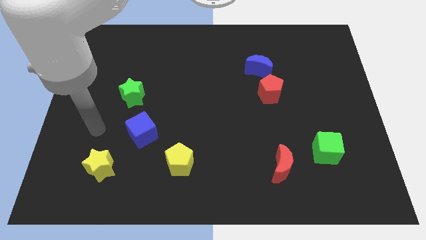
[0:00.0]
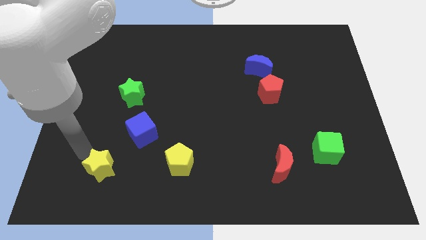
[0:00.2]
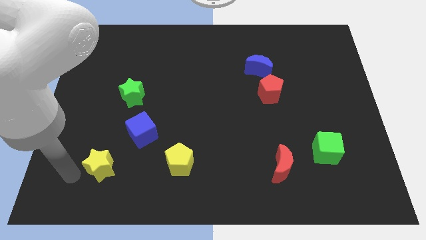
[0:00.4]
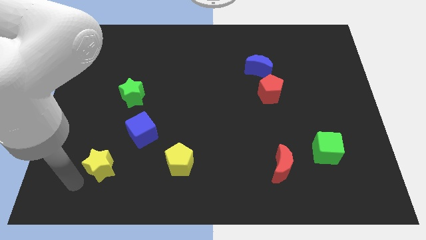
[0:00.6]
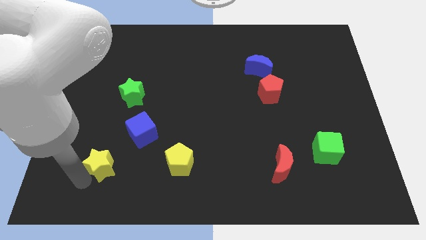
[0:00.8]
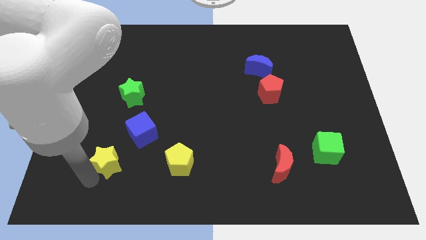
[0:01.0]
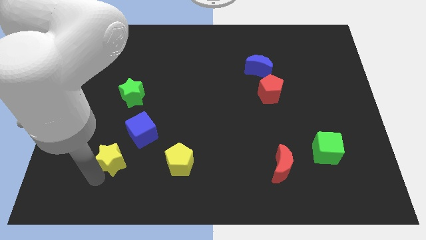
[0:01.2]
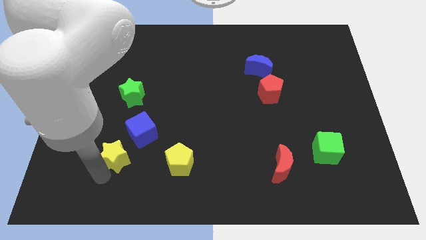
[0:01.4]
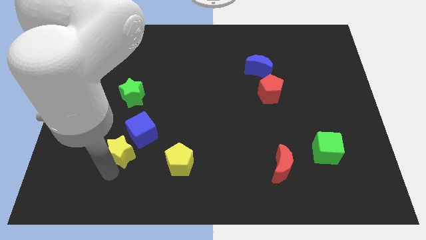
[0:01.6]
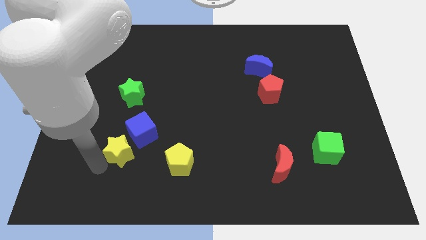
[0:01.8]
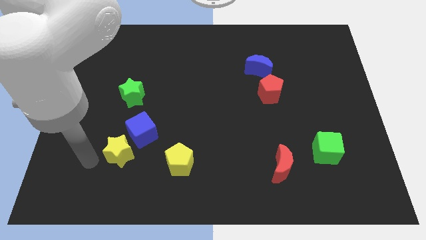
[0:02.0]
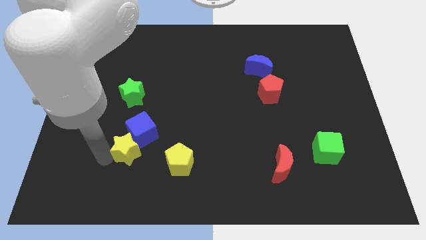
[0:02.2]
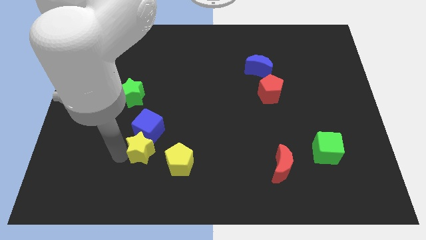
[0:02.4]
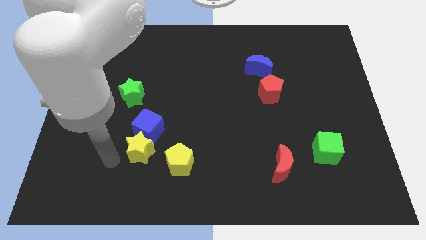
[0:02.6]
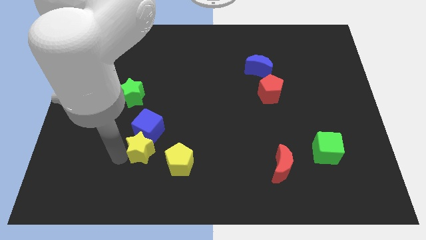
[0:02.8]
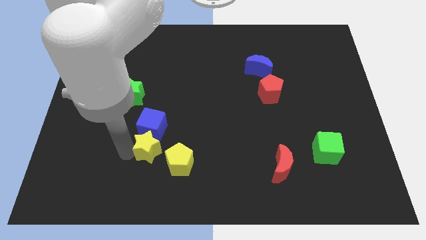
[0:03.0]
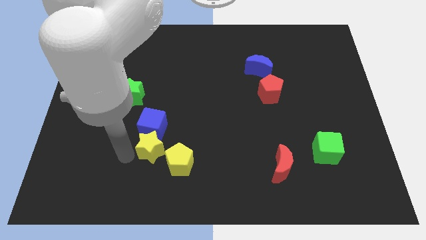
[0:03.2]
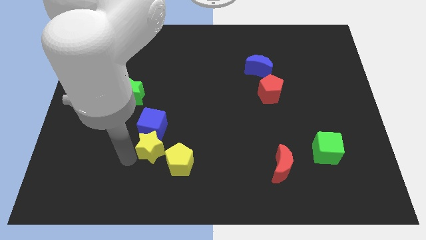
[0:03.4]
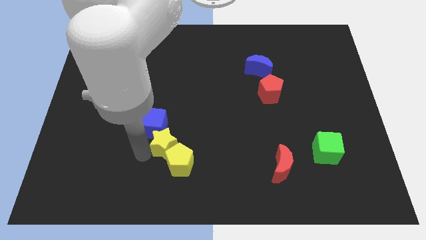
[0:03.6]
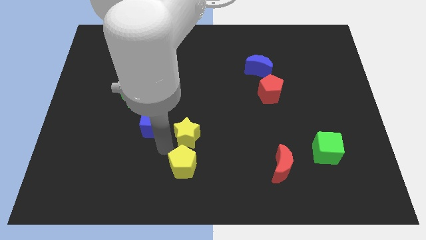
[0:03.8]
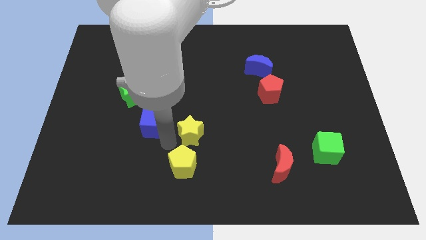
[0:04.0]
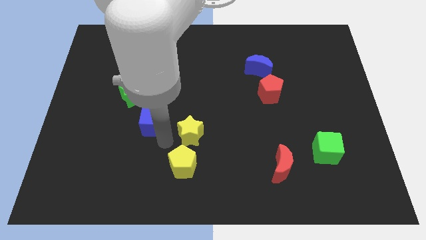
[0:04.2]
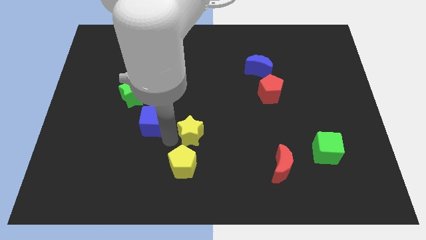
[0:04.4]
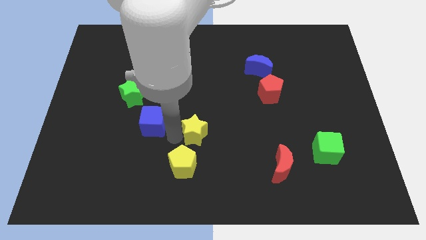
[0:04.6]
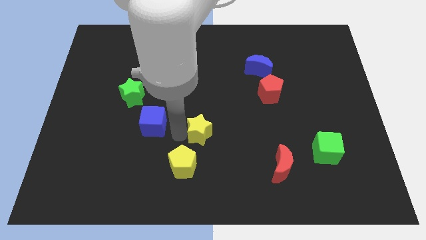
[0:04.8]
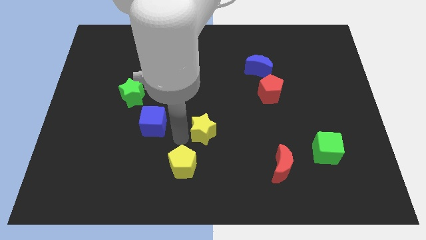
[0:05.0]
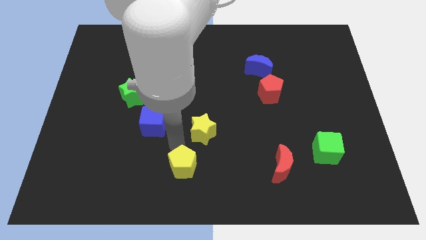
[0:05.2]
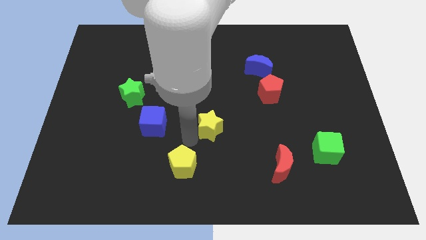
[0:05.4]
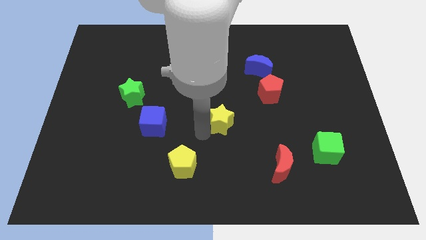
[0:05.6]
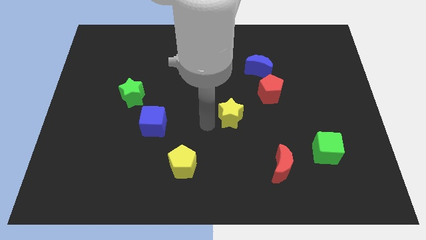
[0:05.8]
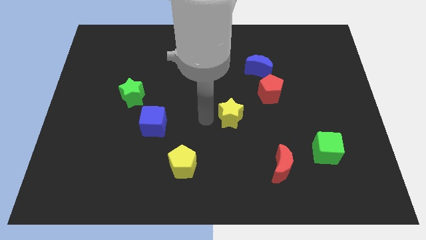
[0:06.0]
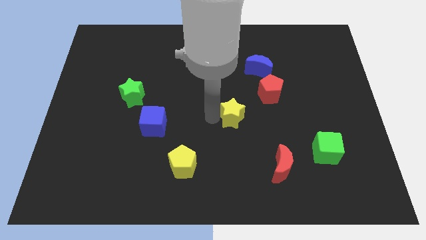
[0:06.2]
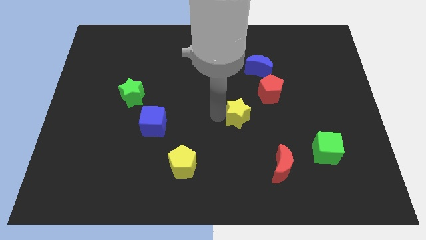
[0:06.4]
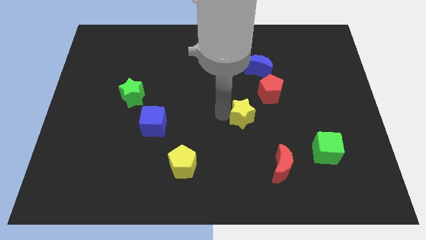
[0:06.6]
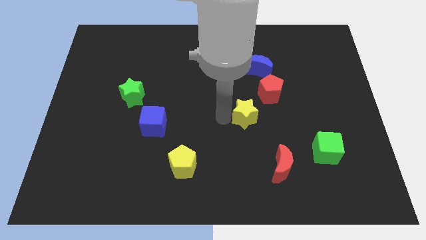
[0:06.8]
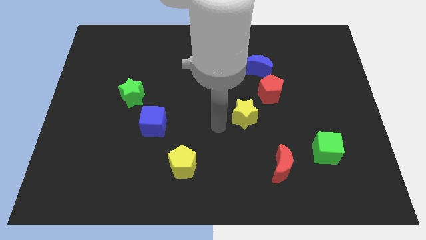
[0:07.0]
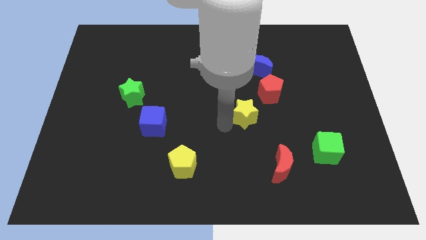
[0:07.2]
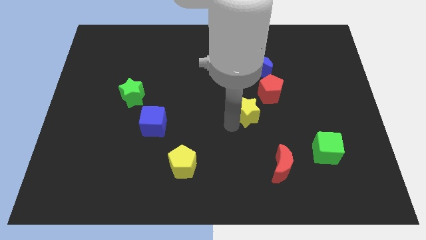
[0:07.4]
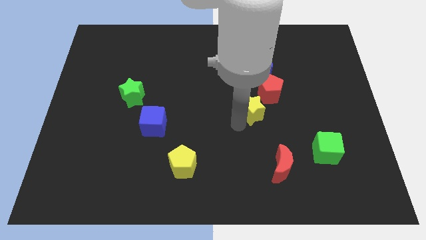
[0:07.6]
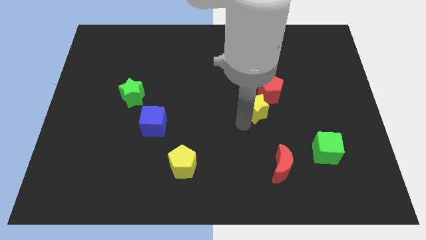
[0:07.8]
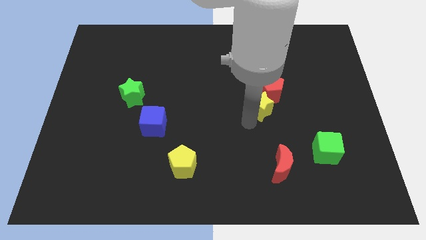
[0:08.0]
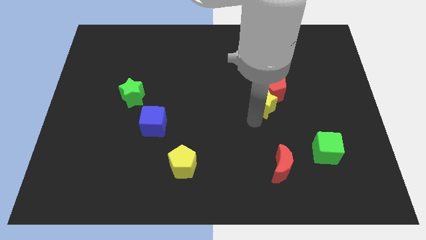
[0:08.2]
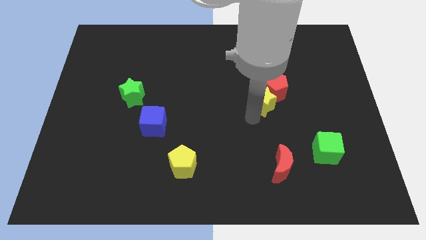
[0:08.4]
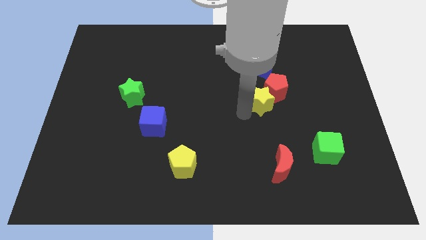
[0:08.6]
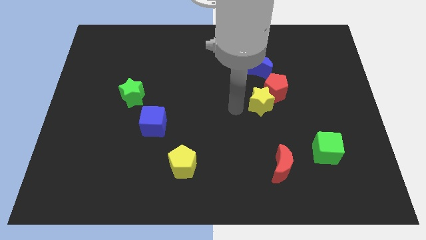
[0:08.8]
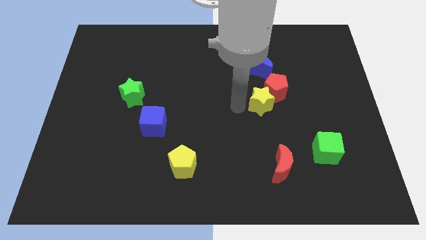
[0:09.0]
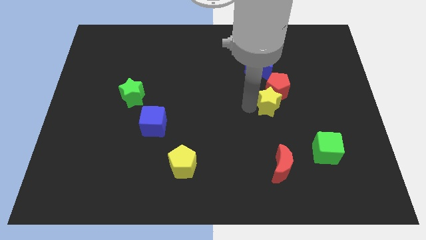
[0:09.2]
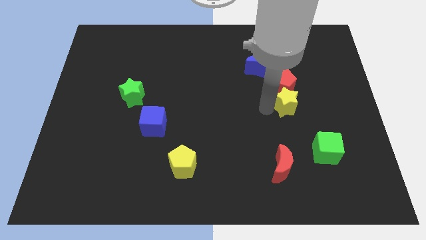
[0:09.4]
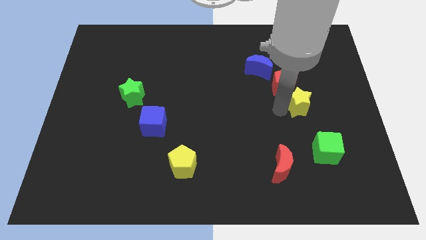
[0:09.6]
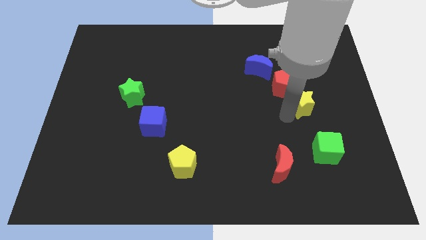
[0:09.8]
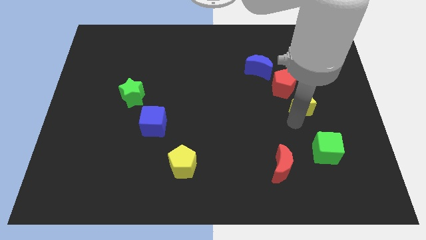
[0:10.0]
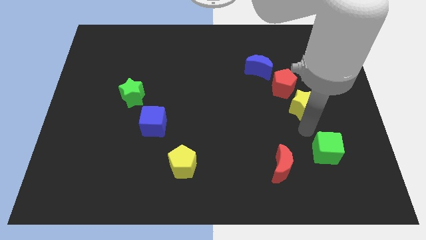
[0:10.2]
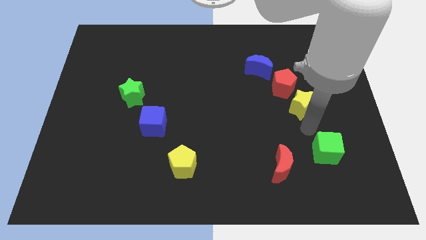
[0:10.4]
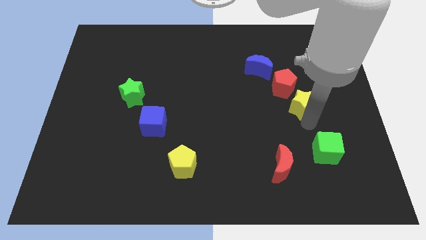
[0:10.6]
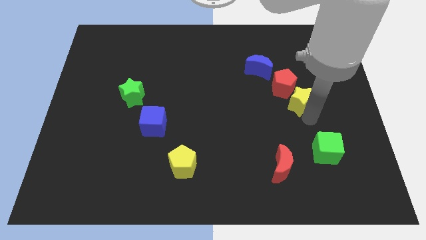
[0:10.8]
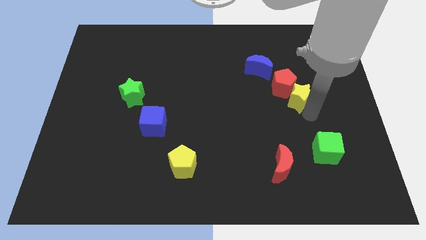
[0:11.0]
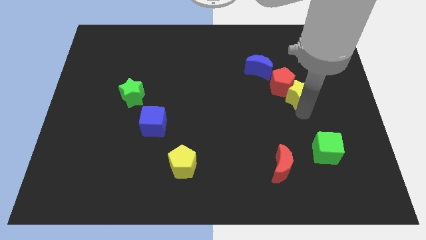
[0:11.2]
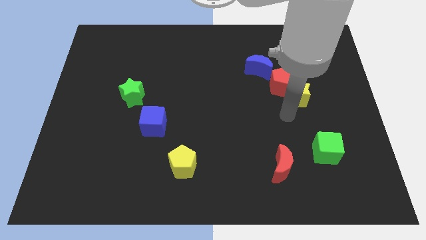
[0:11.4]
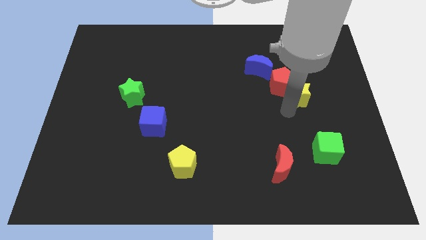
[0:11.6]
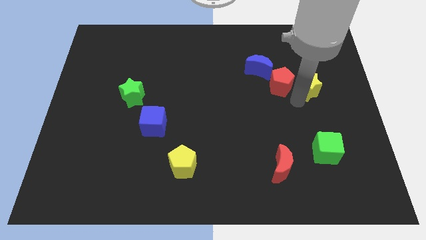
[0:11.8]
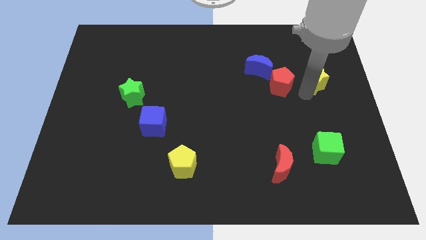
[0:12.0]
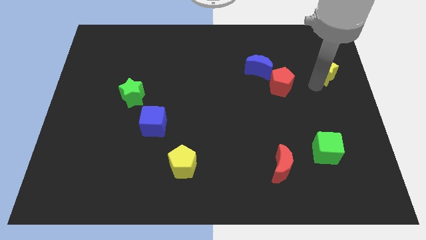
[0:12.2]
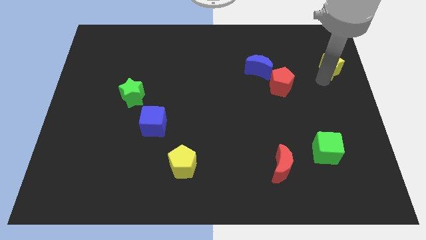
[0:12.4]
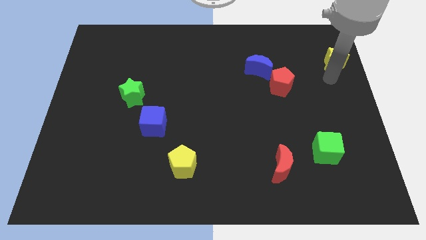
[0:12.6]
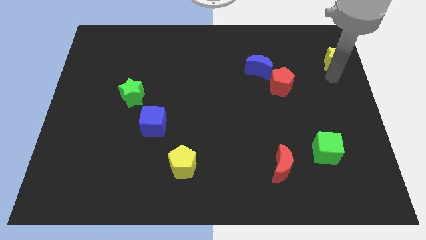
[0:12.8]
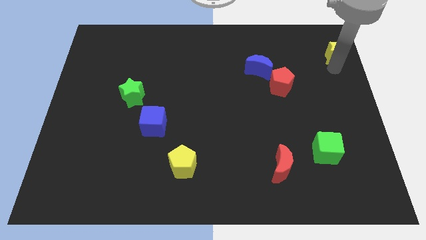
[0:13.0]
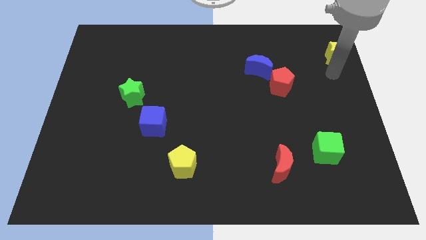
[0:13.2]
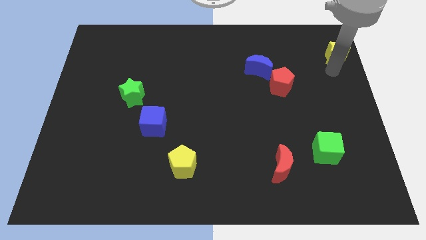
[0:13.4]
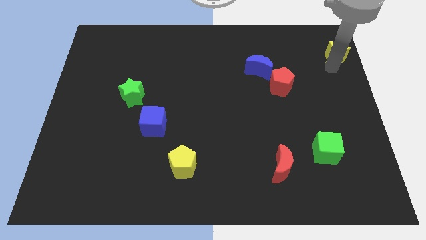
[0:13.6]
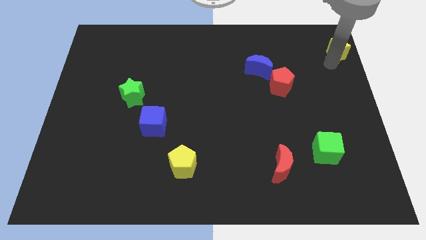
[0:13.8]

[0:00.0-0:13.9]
move the yellow star to the top right
